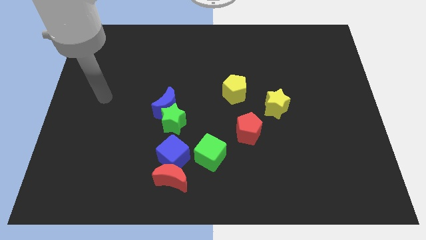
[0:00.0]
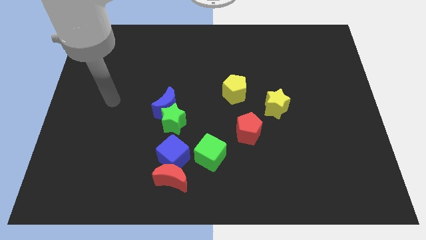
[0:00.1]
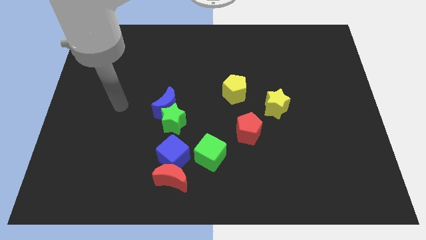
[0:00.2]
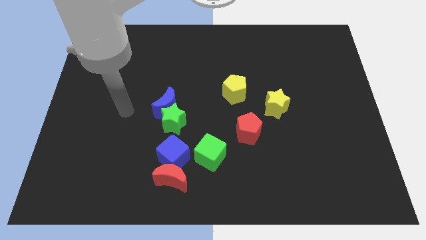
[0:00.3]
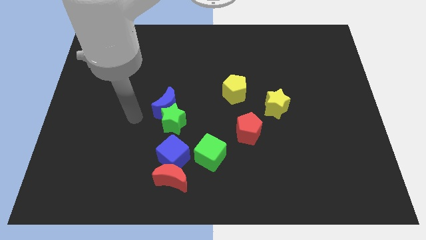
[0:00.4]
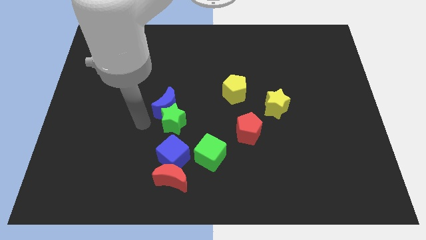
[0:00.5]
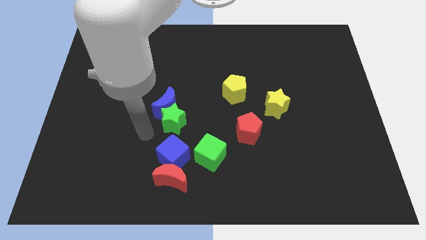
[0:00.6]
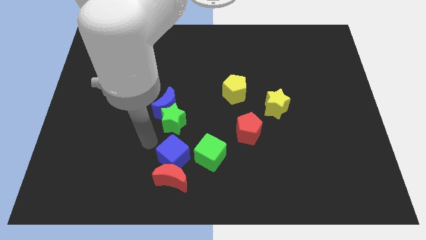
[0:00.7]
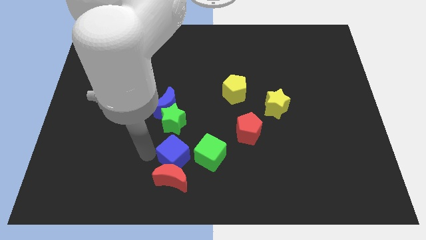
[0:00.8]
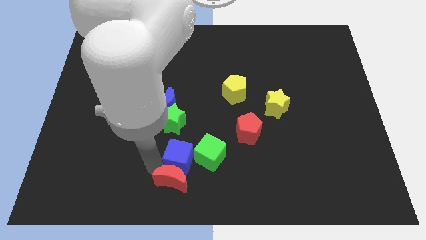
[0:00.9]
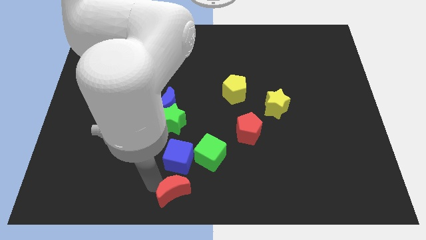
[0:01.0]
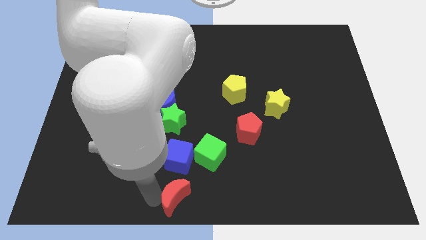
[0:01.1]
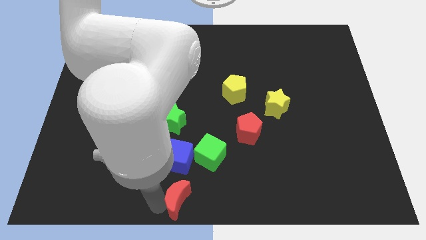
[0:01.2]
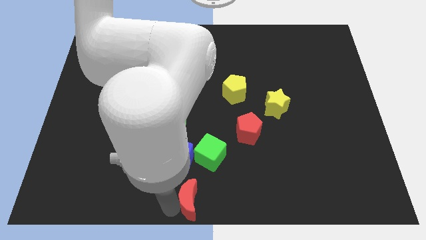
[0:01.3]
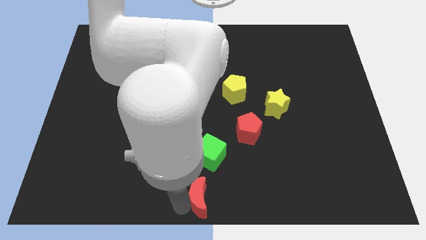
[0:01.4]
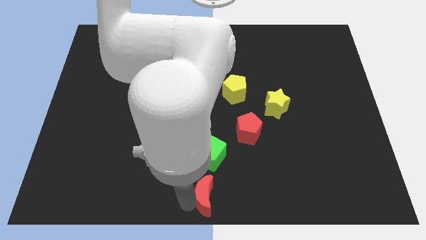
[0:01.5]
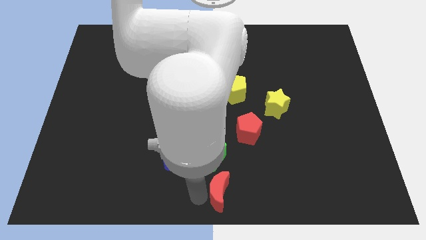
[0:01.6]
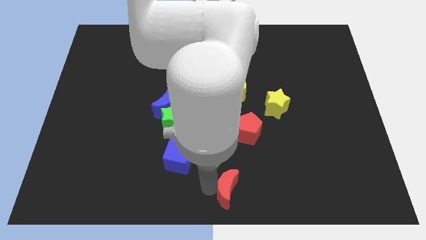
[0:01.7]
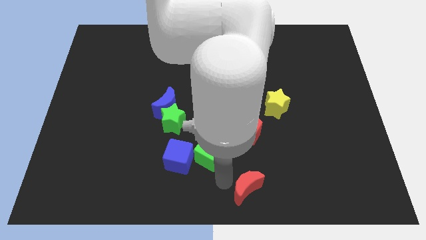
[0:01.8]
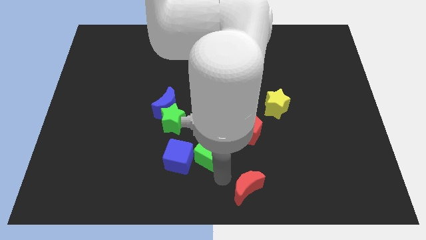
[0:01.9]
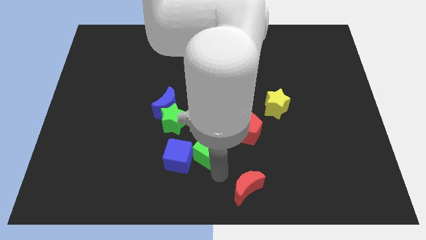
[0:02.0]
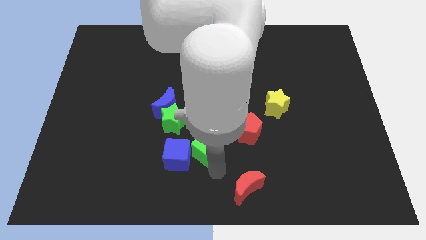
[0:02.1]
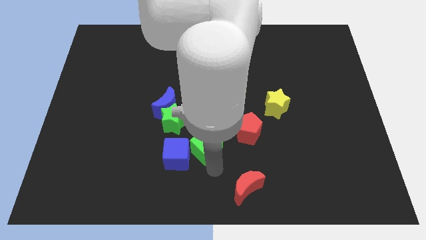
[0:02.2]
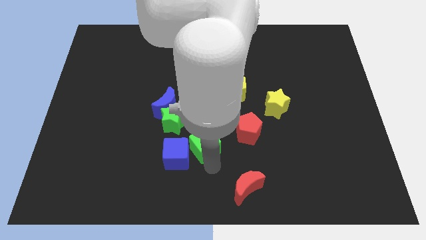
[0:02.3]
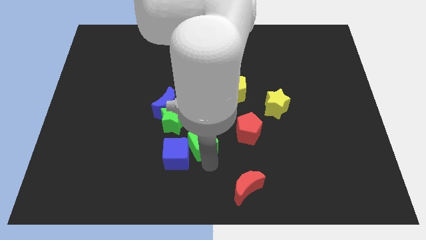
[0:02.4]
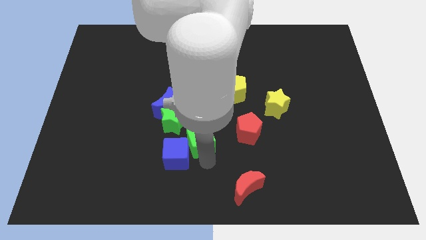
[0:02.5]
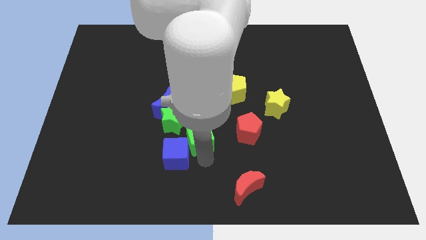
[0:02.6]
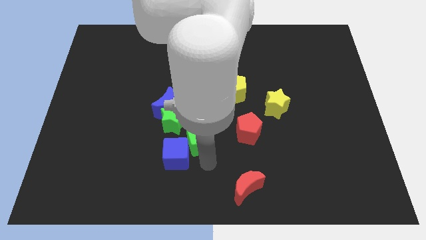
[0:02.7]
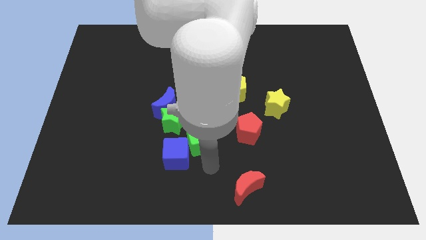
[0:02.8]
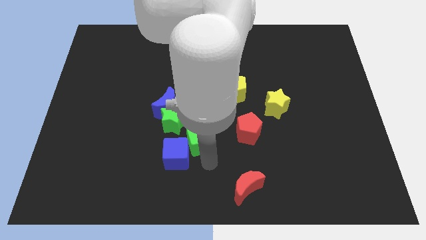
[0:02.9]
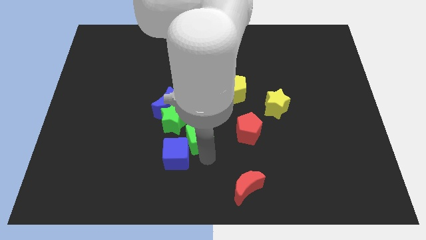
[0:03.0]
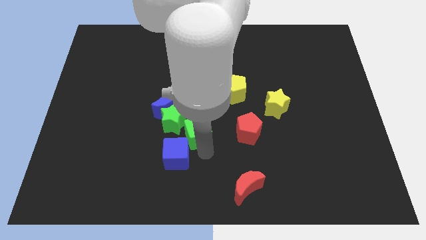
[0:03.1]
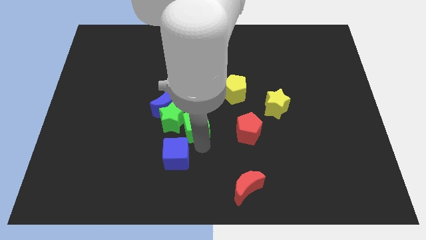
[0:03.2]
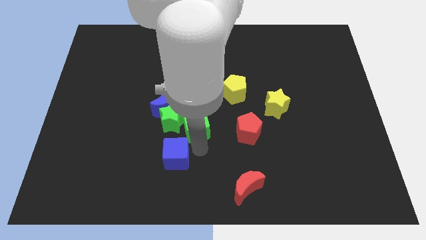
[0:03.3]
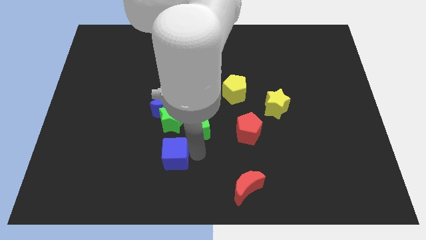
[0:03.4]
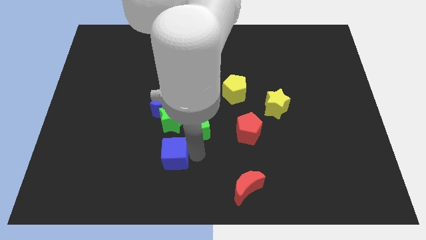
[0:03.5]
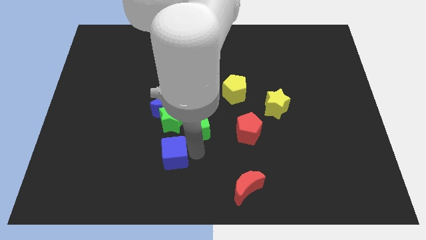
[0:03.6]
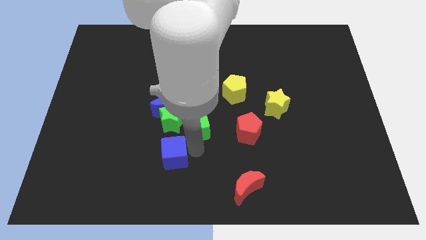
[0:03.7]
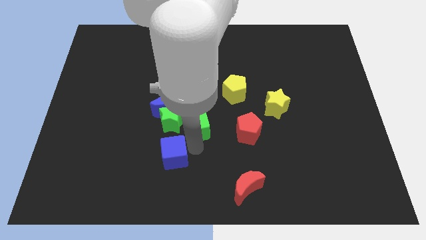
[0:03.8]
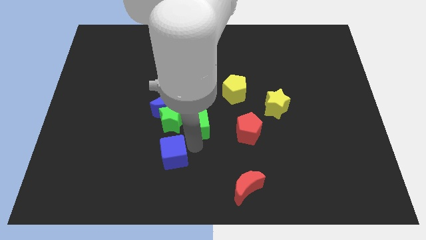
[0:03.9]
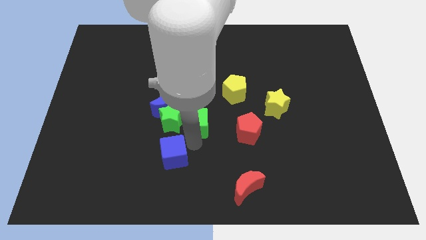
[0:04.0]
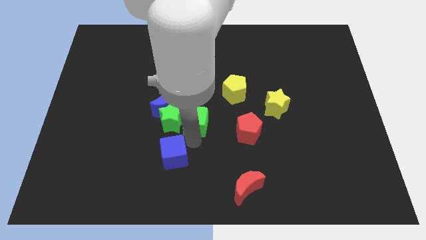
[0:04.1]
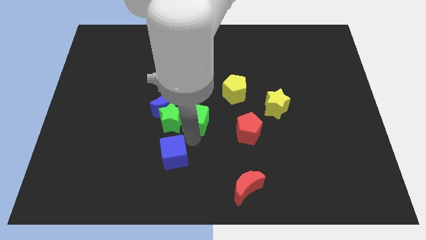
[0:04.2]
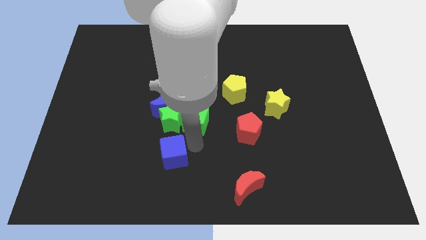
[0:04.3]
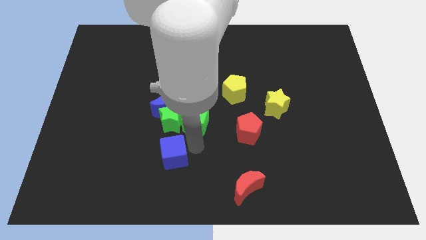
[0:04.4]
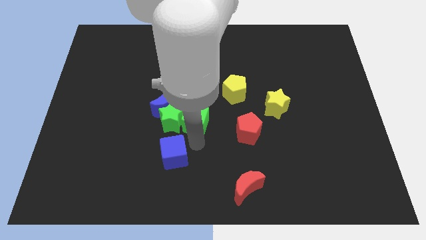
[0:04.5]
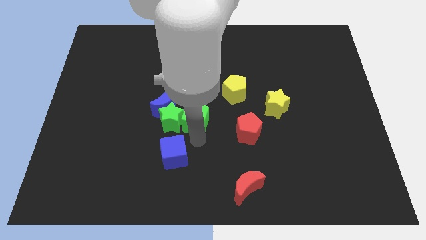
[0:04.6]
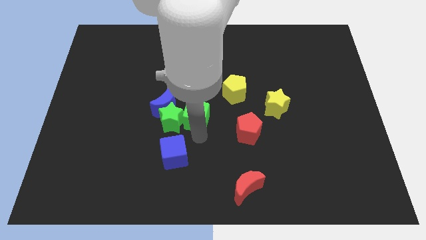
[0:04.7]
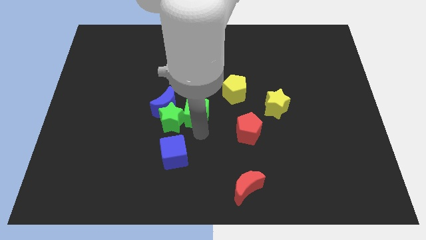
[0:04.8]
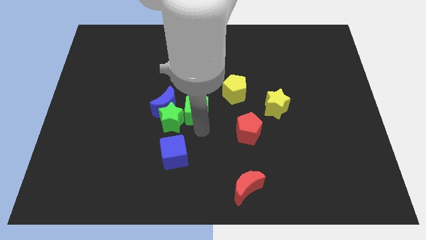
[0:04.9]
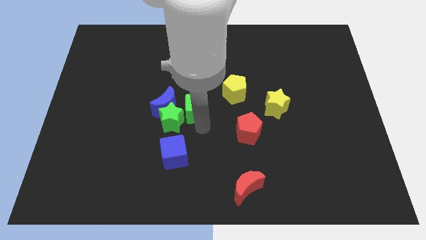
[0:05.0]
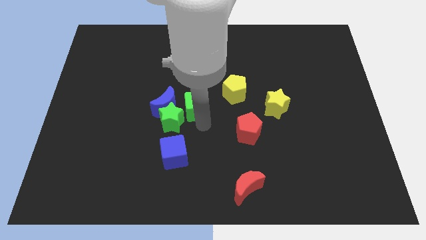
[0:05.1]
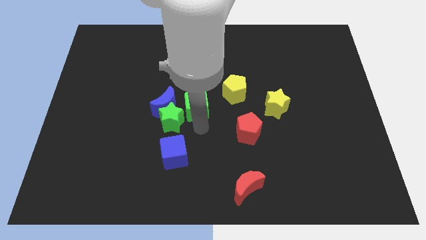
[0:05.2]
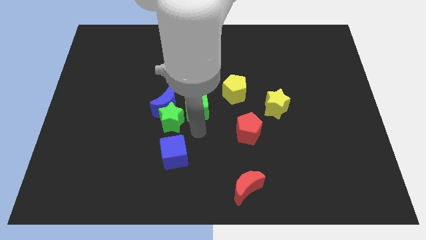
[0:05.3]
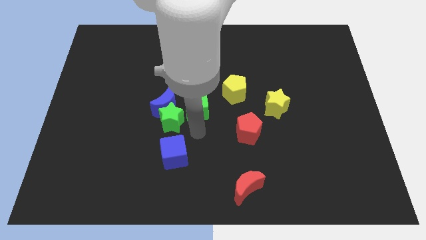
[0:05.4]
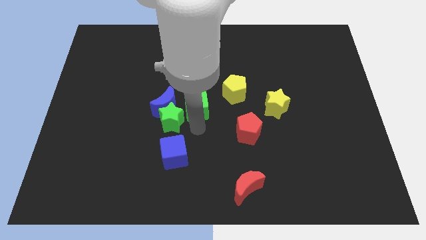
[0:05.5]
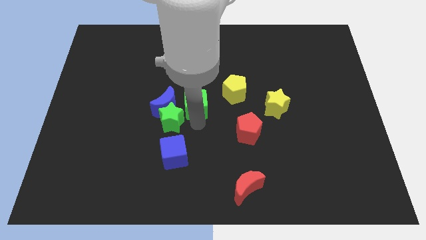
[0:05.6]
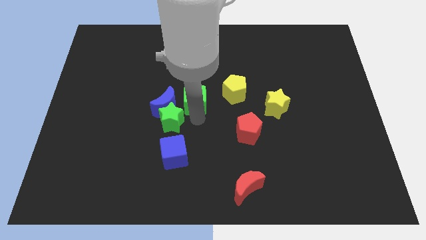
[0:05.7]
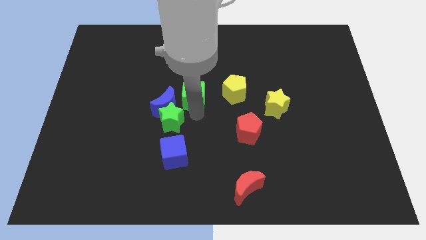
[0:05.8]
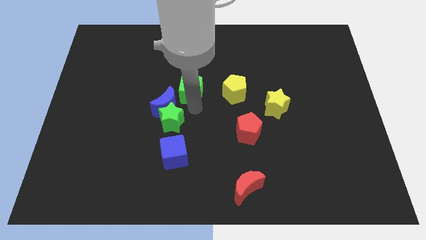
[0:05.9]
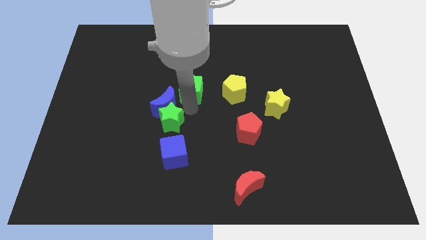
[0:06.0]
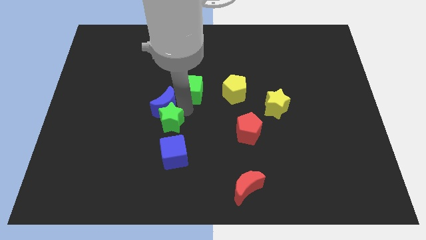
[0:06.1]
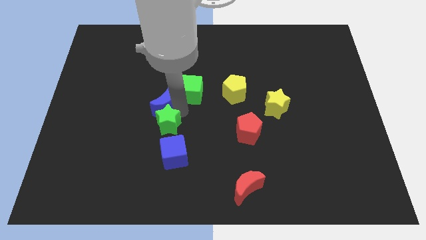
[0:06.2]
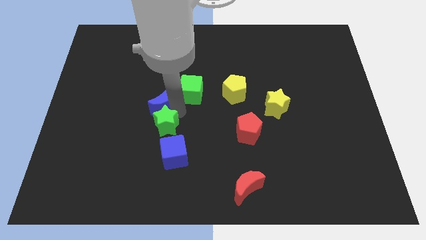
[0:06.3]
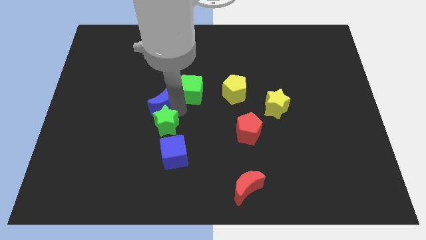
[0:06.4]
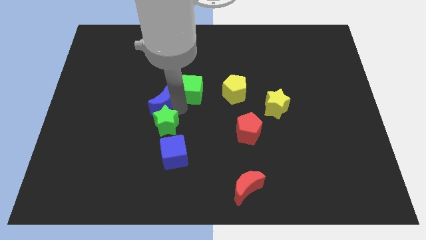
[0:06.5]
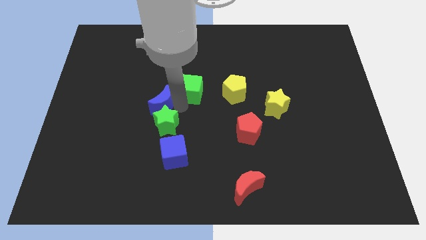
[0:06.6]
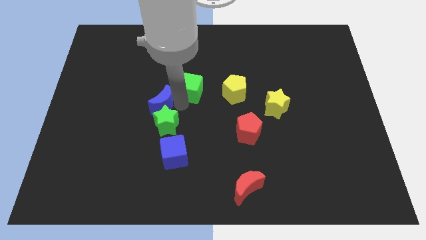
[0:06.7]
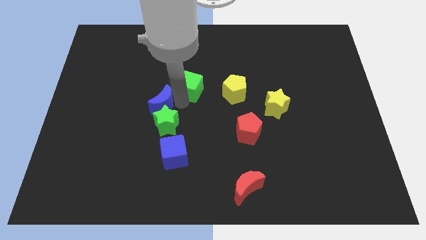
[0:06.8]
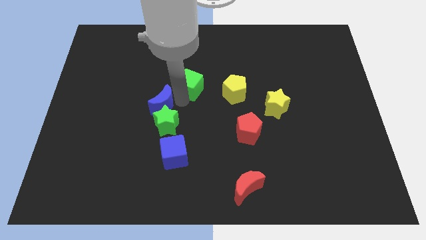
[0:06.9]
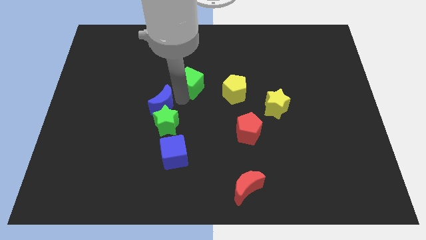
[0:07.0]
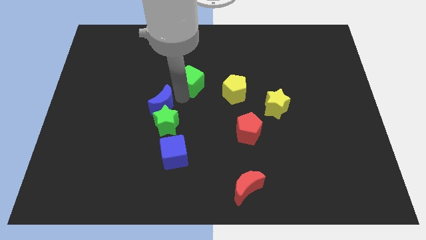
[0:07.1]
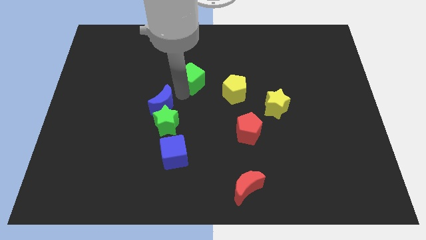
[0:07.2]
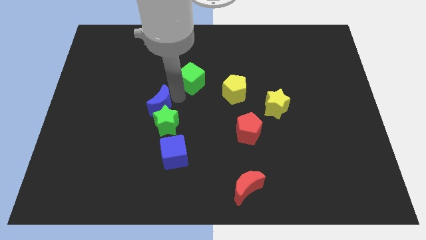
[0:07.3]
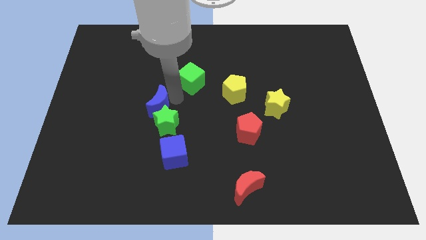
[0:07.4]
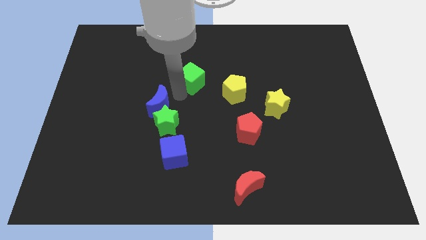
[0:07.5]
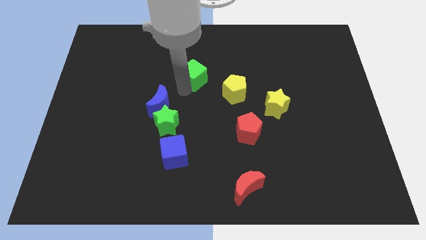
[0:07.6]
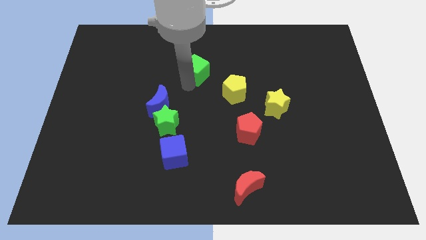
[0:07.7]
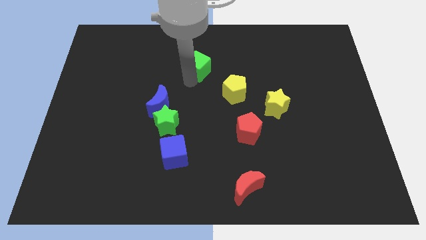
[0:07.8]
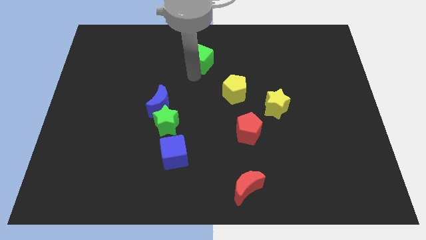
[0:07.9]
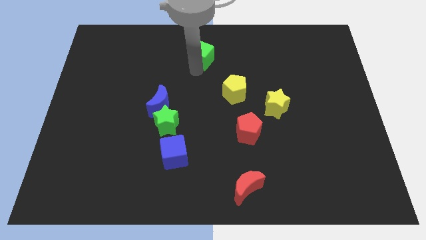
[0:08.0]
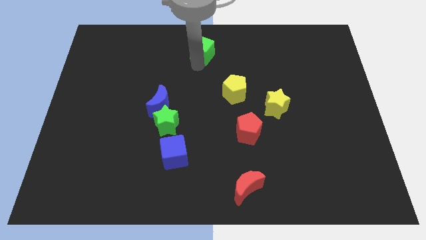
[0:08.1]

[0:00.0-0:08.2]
push the green cube to the top side
